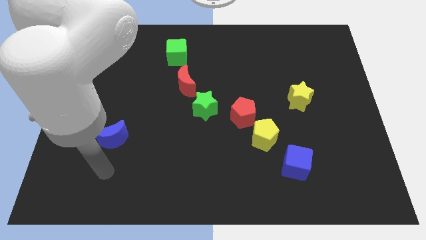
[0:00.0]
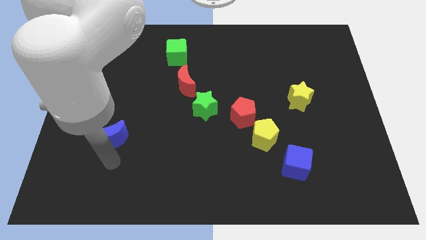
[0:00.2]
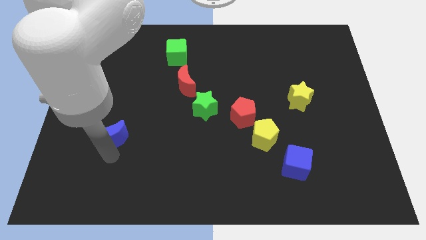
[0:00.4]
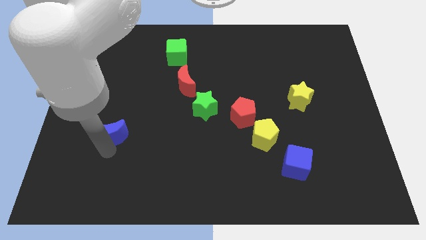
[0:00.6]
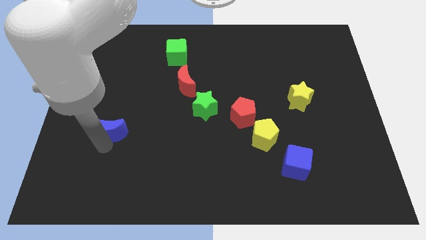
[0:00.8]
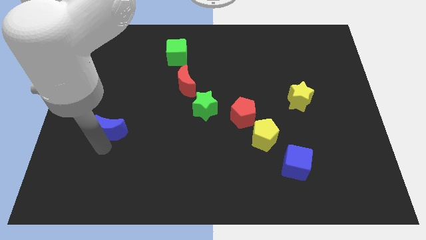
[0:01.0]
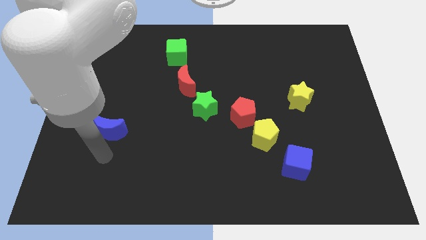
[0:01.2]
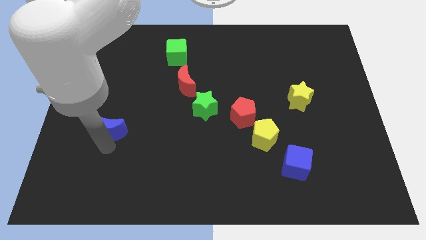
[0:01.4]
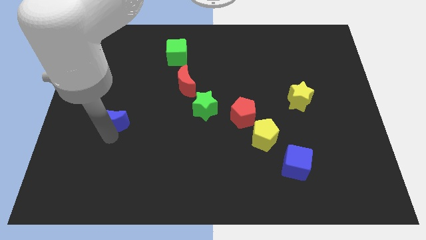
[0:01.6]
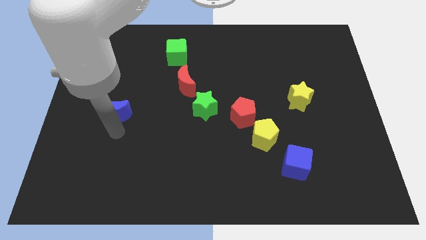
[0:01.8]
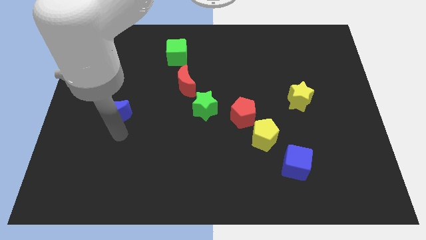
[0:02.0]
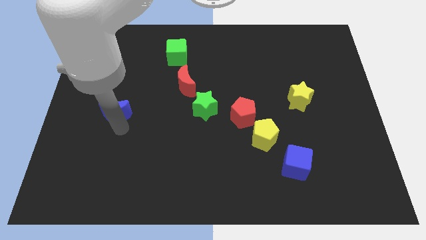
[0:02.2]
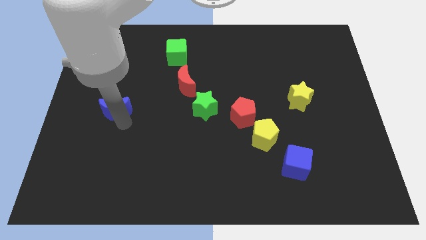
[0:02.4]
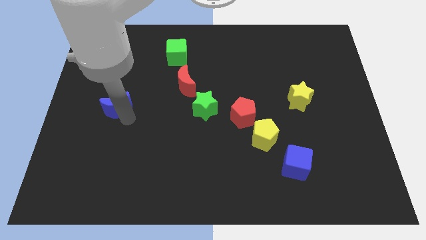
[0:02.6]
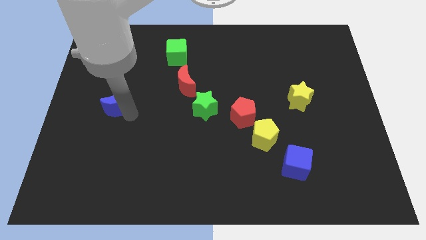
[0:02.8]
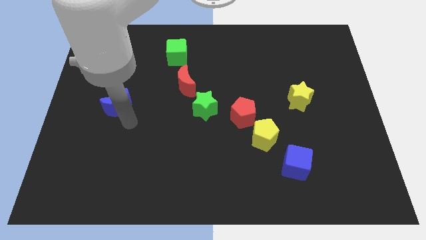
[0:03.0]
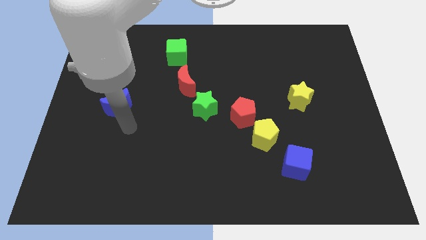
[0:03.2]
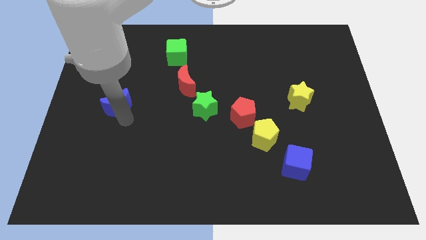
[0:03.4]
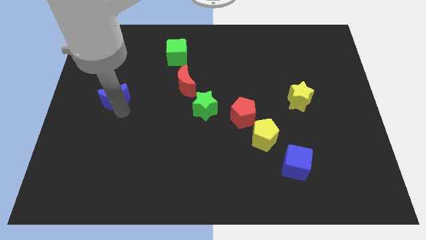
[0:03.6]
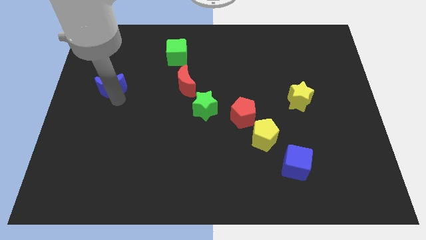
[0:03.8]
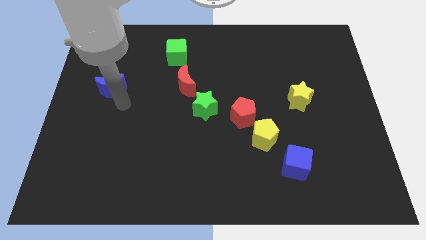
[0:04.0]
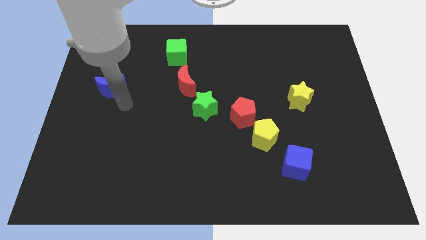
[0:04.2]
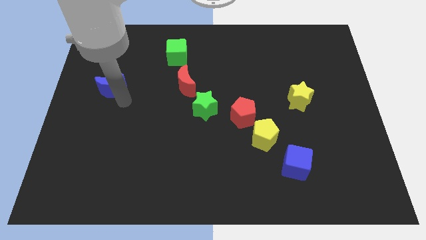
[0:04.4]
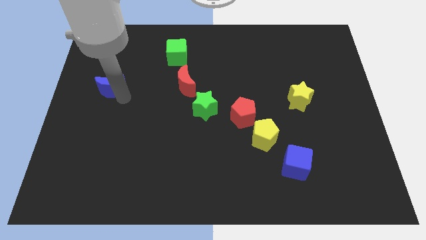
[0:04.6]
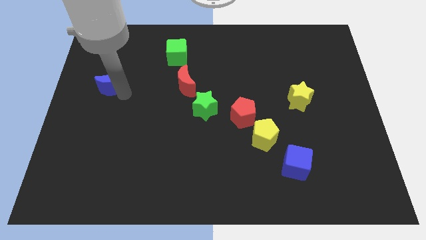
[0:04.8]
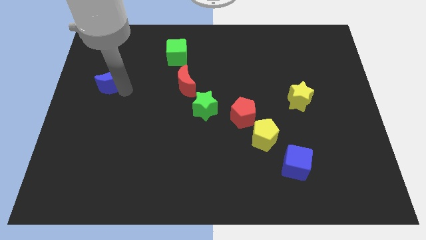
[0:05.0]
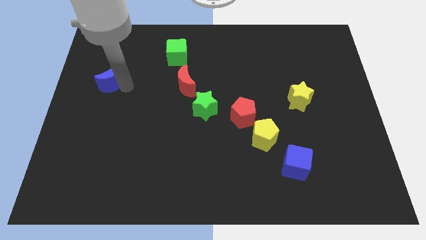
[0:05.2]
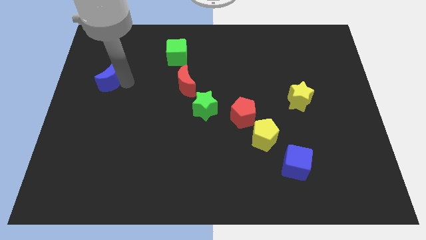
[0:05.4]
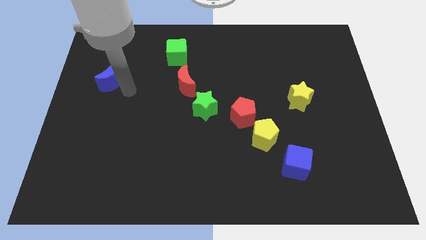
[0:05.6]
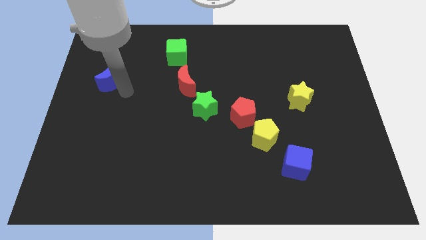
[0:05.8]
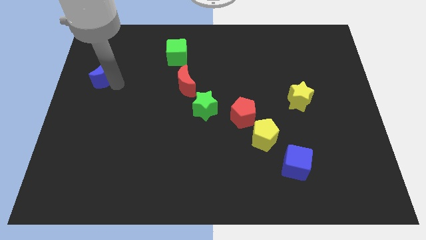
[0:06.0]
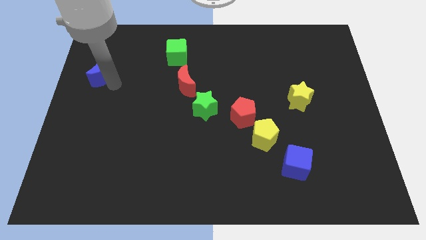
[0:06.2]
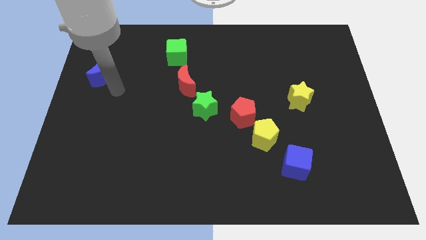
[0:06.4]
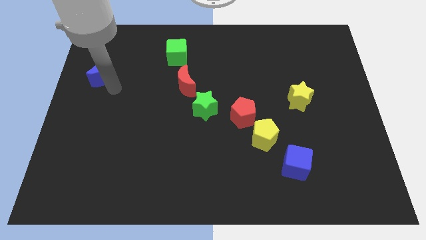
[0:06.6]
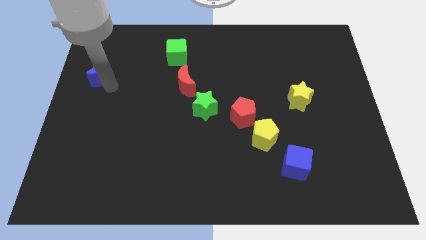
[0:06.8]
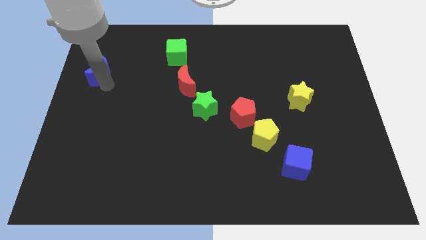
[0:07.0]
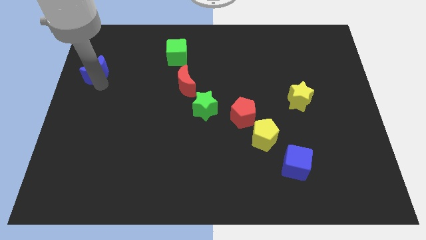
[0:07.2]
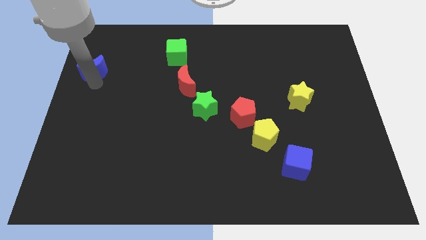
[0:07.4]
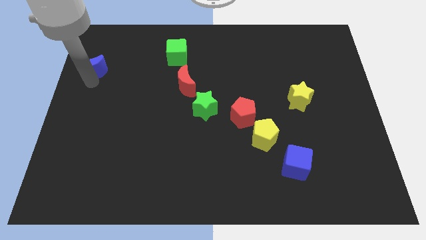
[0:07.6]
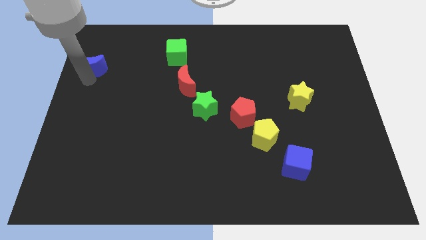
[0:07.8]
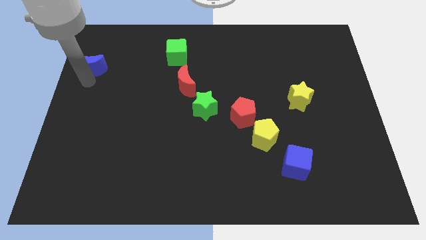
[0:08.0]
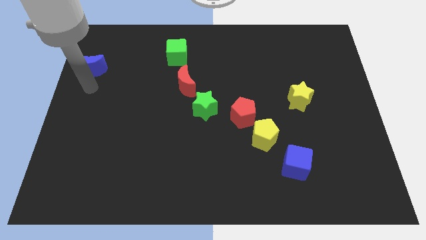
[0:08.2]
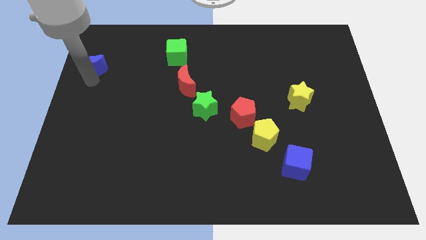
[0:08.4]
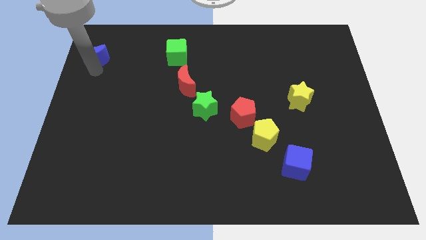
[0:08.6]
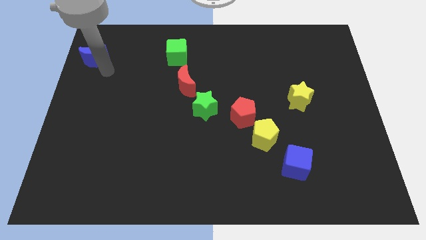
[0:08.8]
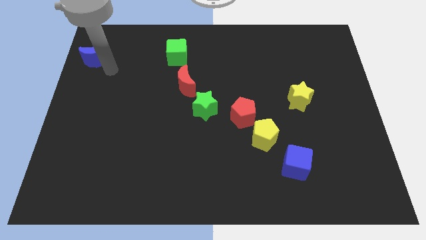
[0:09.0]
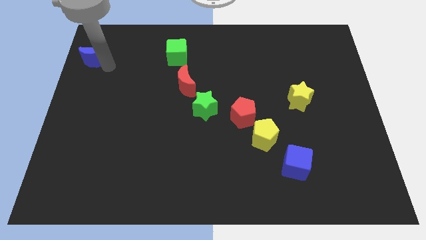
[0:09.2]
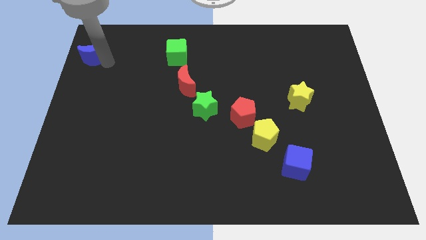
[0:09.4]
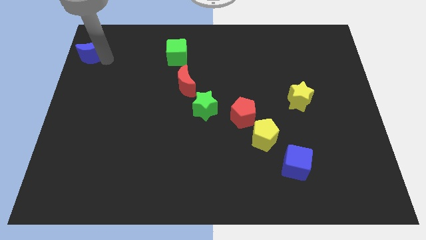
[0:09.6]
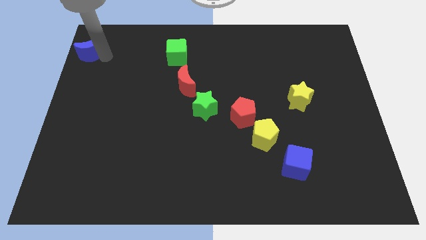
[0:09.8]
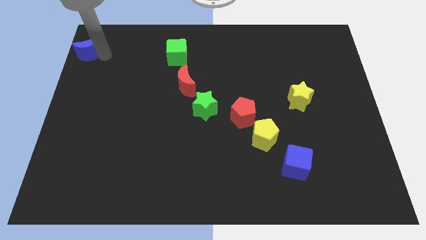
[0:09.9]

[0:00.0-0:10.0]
put the blue moon to the top left of the board
